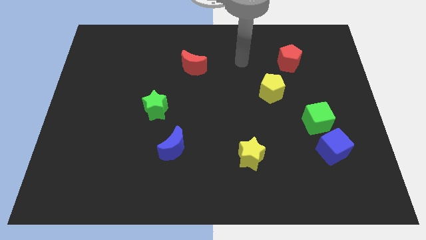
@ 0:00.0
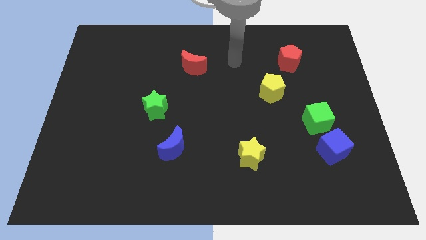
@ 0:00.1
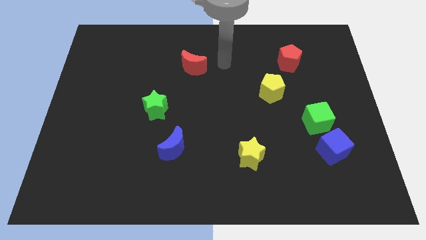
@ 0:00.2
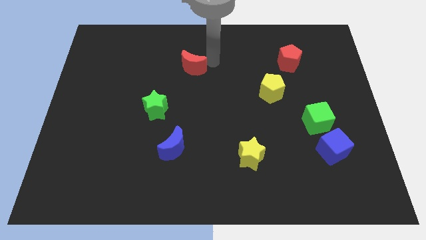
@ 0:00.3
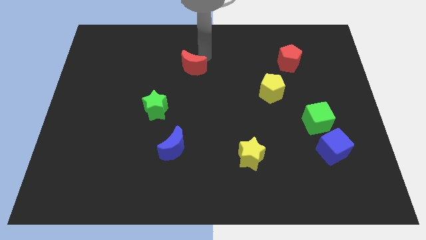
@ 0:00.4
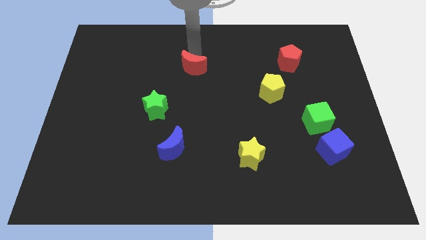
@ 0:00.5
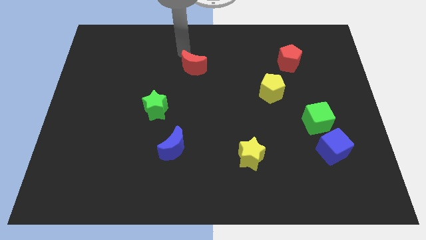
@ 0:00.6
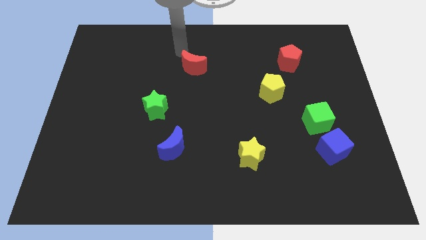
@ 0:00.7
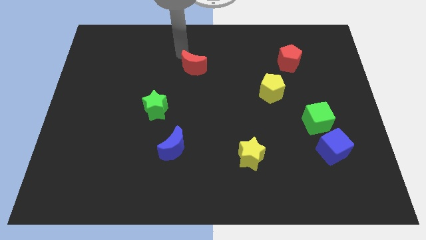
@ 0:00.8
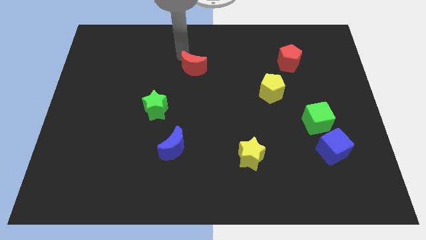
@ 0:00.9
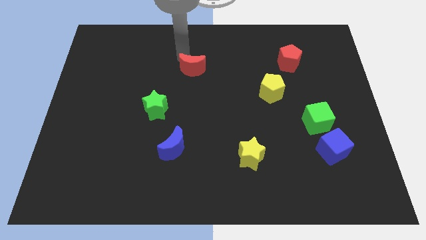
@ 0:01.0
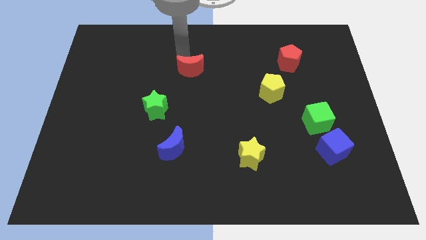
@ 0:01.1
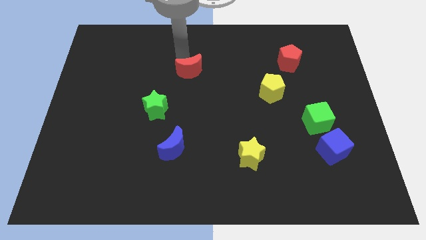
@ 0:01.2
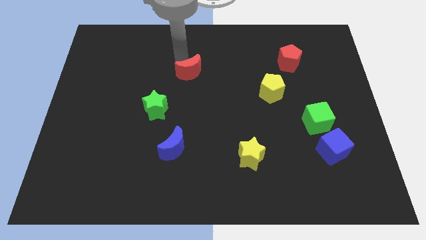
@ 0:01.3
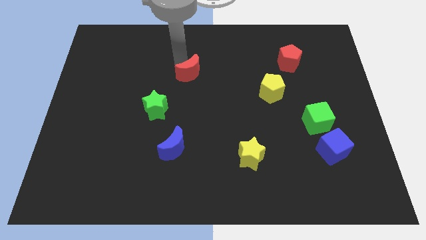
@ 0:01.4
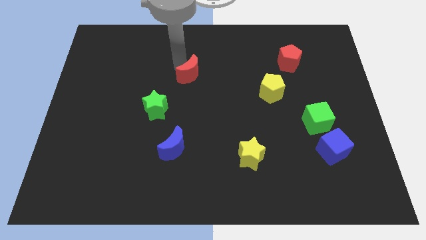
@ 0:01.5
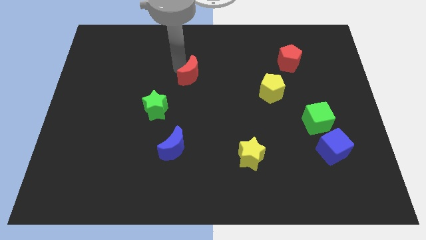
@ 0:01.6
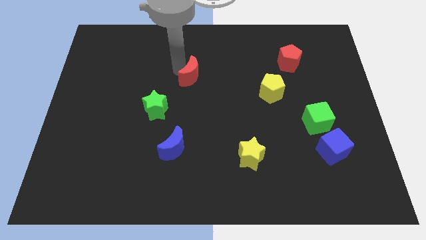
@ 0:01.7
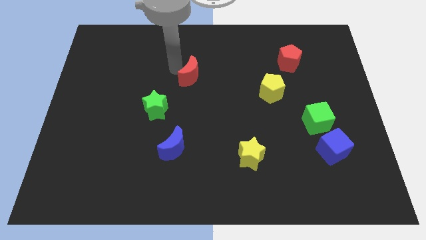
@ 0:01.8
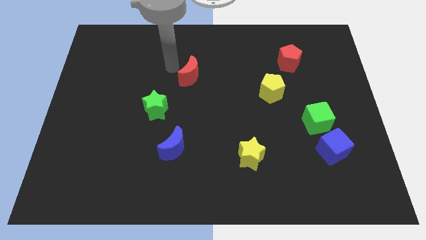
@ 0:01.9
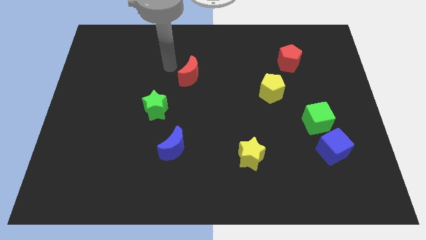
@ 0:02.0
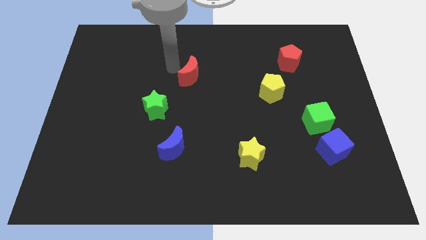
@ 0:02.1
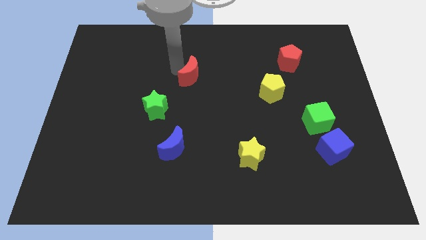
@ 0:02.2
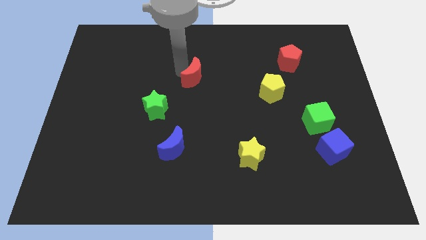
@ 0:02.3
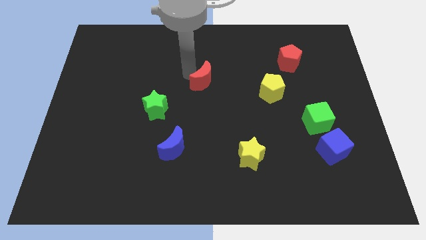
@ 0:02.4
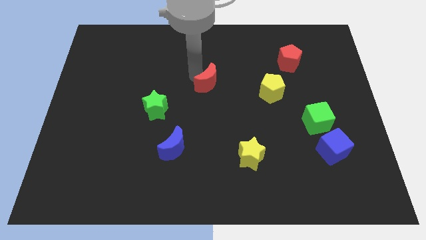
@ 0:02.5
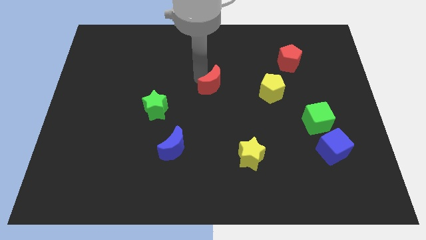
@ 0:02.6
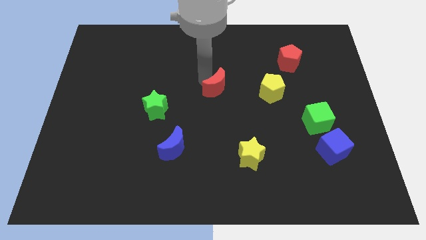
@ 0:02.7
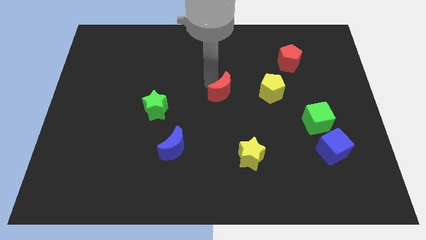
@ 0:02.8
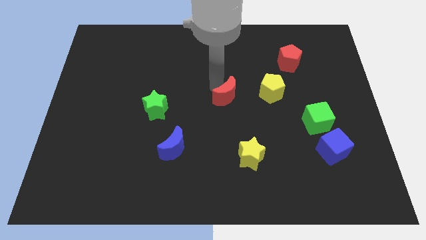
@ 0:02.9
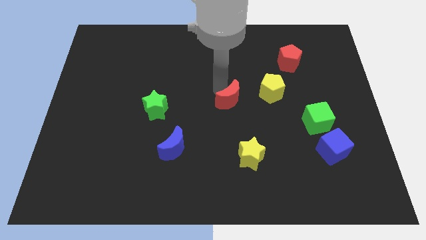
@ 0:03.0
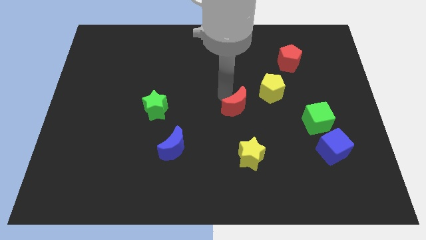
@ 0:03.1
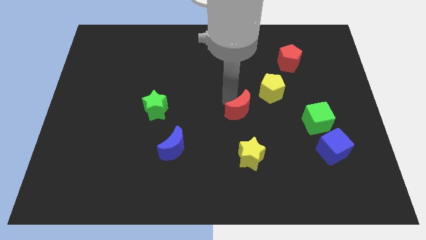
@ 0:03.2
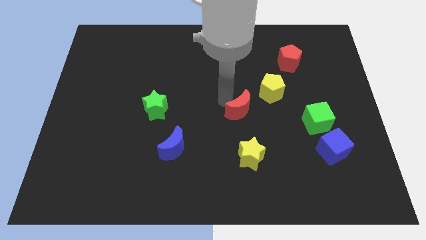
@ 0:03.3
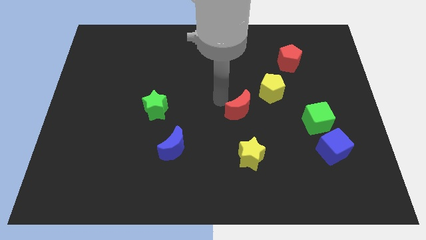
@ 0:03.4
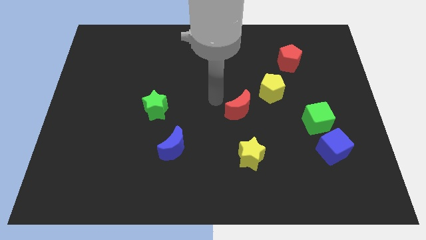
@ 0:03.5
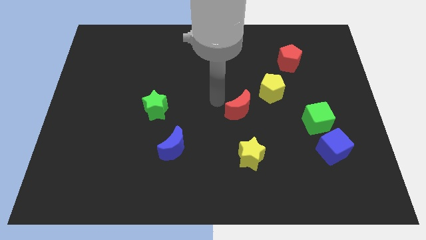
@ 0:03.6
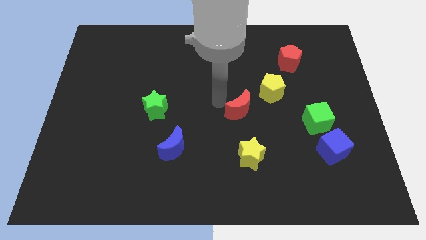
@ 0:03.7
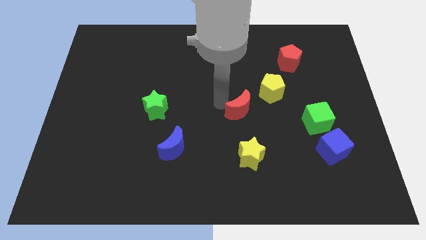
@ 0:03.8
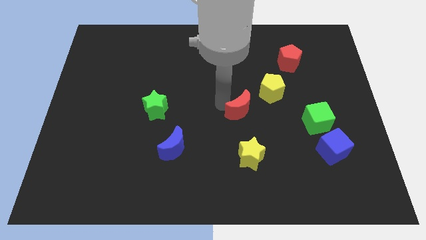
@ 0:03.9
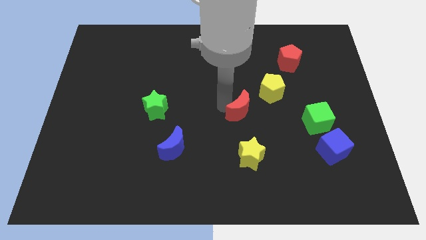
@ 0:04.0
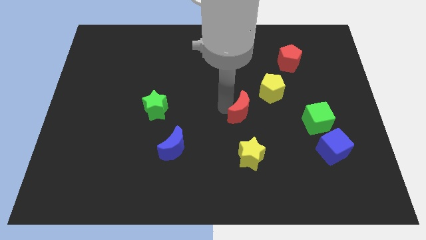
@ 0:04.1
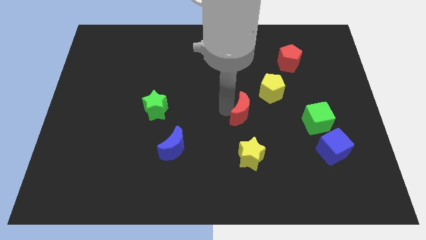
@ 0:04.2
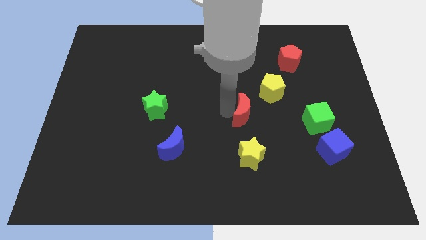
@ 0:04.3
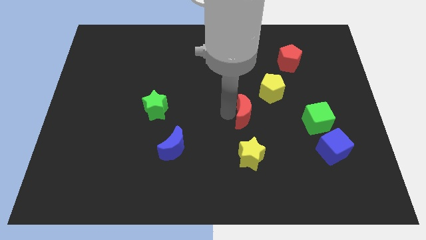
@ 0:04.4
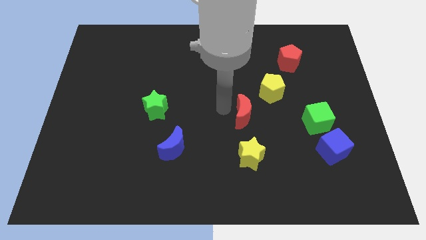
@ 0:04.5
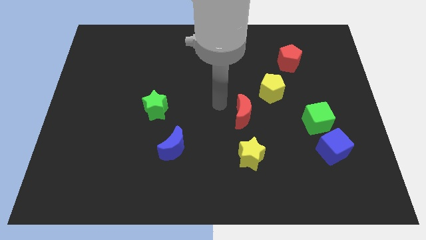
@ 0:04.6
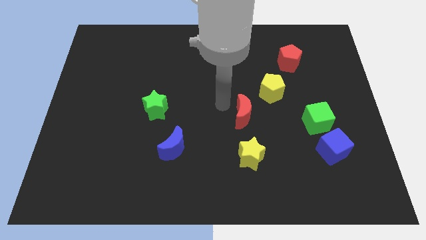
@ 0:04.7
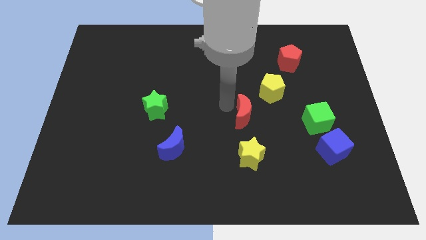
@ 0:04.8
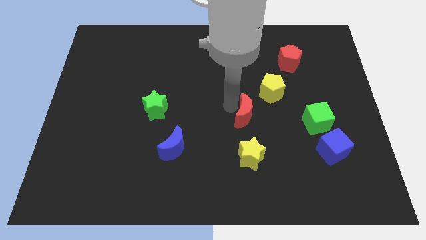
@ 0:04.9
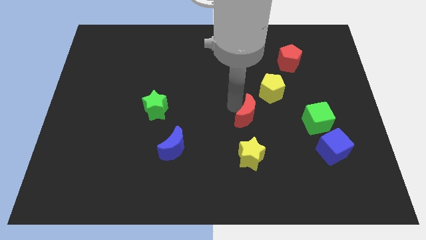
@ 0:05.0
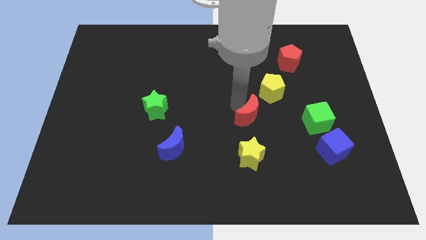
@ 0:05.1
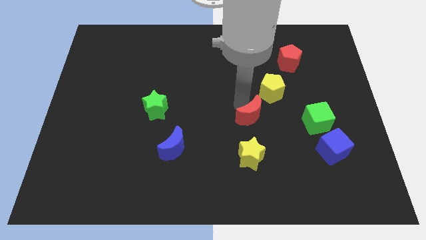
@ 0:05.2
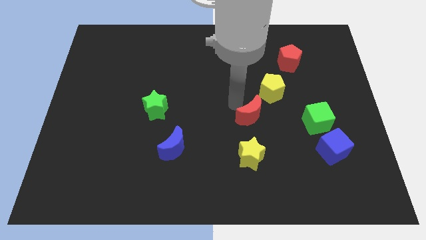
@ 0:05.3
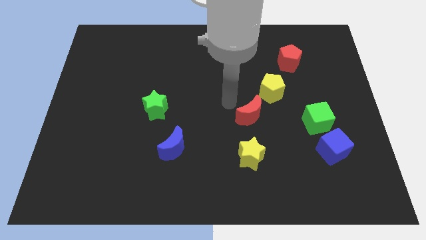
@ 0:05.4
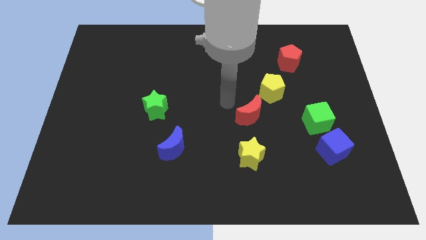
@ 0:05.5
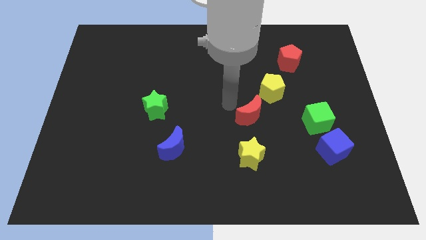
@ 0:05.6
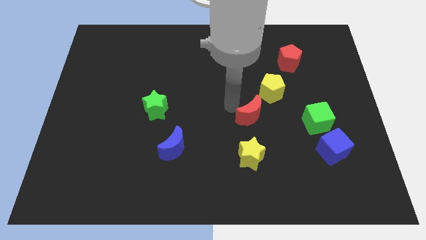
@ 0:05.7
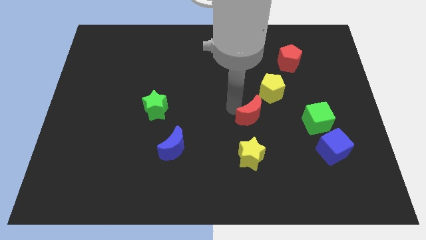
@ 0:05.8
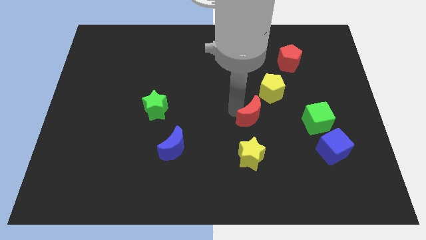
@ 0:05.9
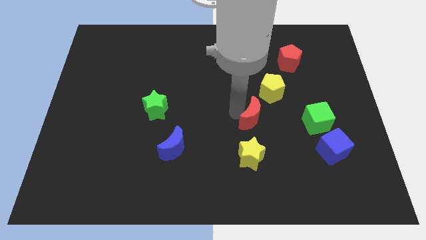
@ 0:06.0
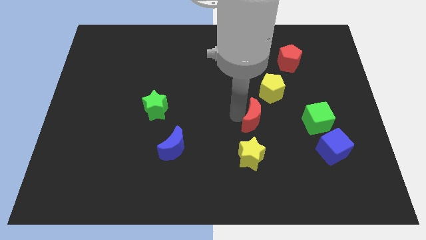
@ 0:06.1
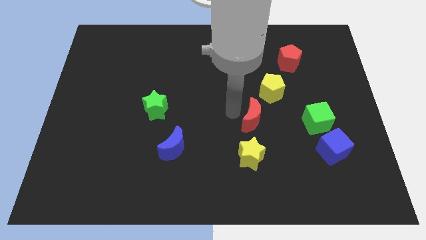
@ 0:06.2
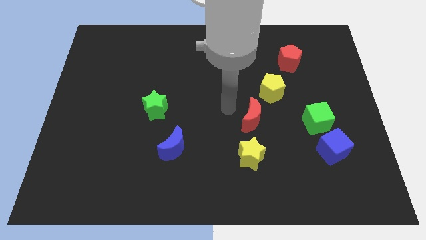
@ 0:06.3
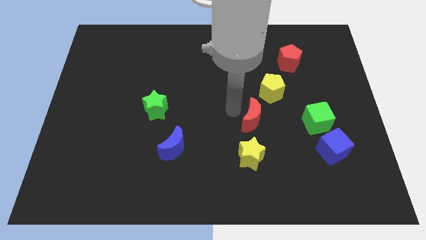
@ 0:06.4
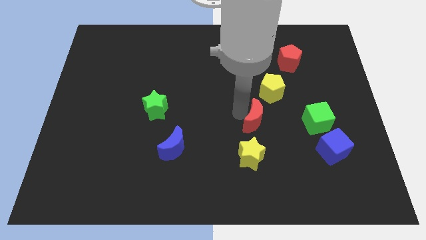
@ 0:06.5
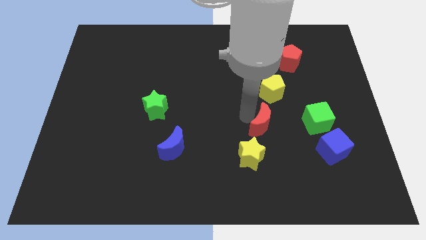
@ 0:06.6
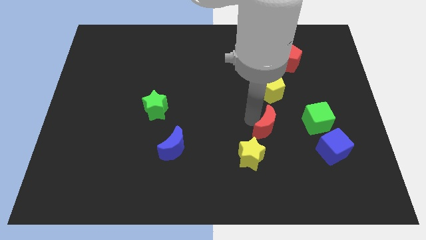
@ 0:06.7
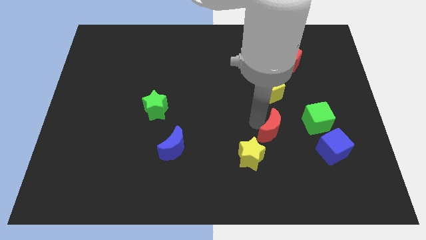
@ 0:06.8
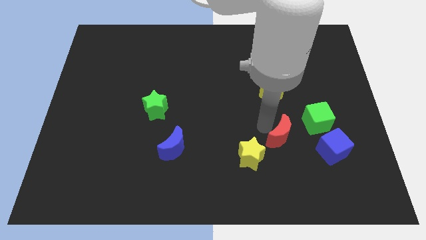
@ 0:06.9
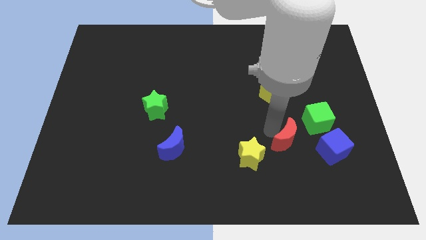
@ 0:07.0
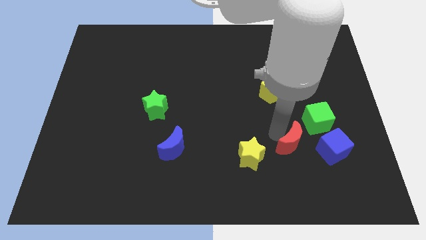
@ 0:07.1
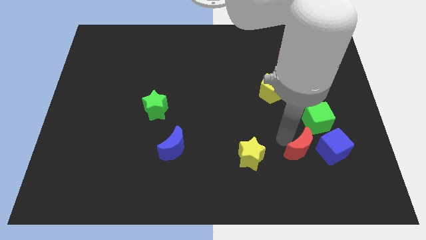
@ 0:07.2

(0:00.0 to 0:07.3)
push the red moon to the bottom of the green cube

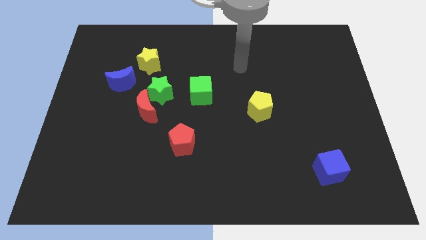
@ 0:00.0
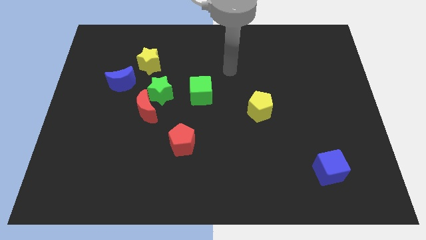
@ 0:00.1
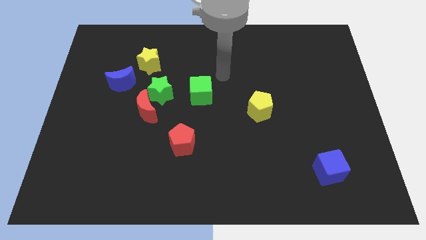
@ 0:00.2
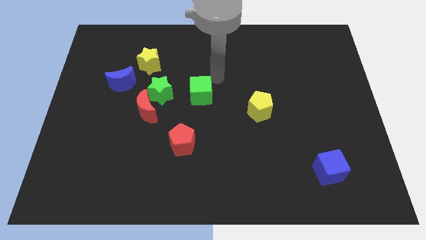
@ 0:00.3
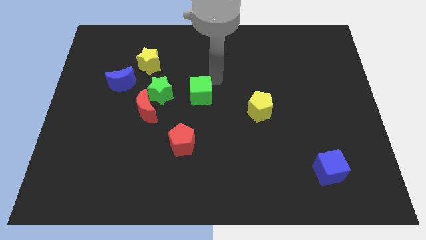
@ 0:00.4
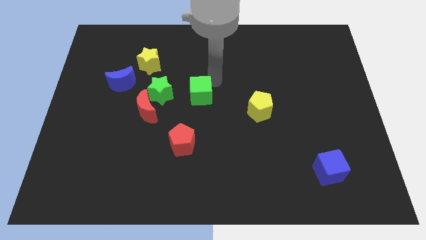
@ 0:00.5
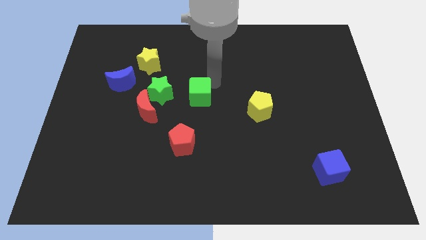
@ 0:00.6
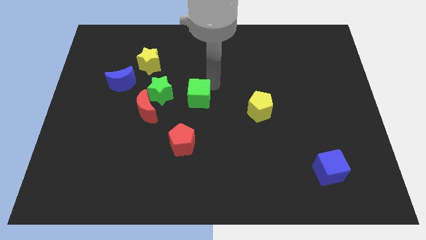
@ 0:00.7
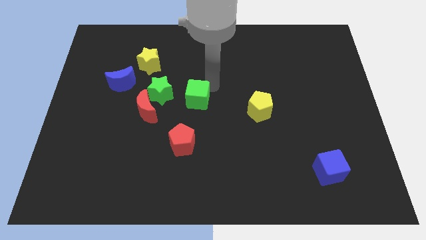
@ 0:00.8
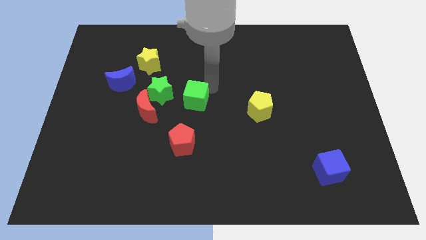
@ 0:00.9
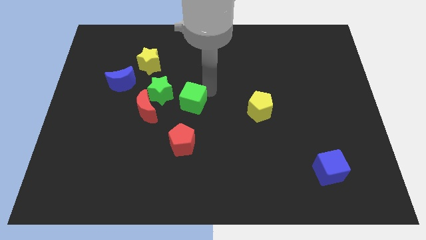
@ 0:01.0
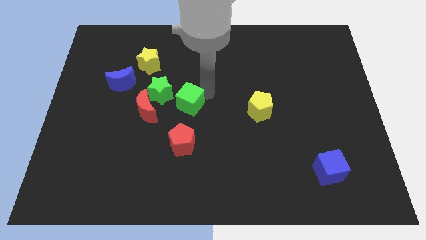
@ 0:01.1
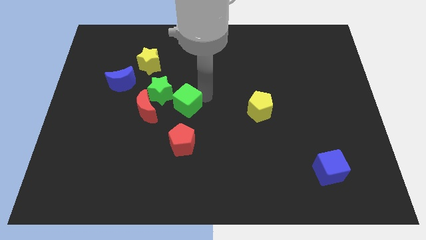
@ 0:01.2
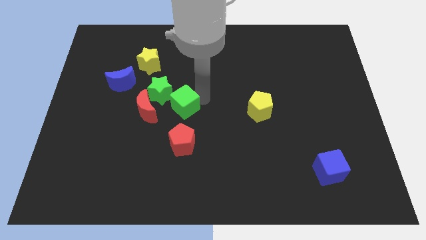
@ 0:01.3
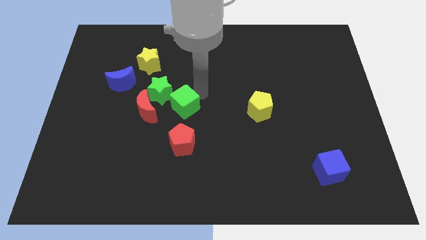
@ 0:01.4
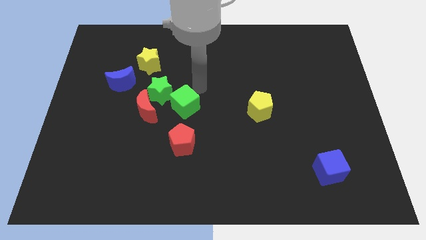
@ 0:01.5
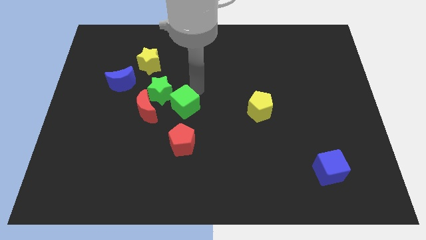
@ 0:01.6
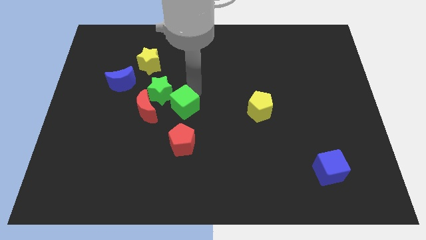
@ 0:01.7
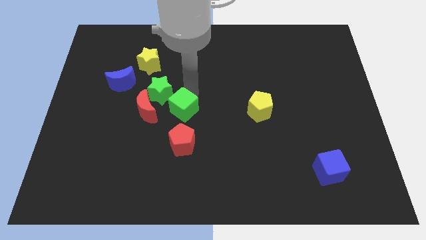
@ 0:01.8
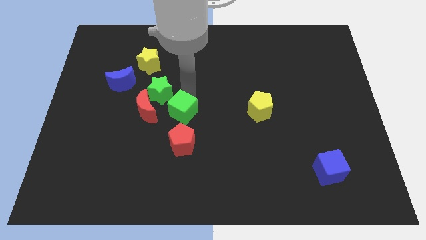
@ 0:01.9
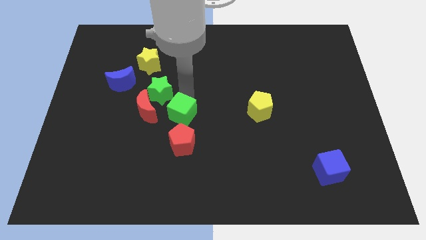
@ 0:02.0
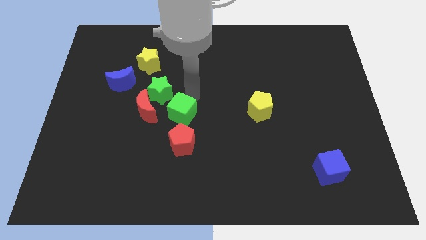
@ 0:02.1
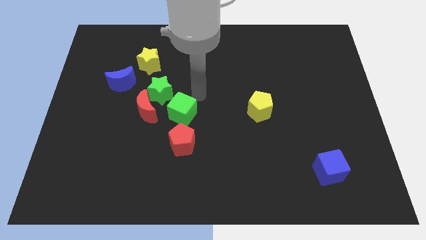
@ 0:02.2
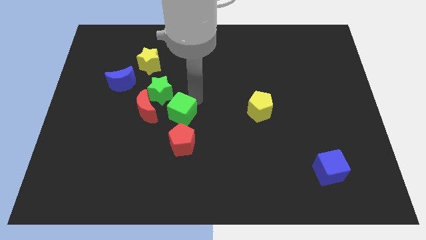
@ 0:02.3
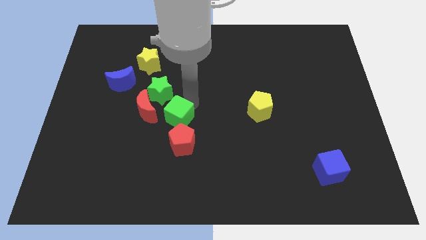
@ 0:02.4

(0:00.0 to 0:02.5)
move the green cube diagonally down and to the right of the red moon
